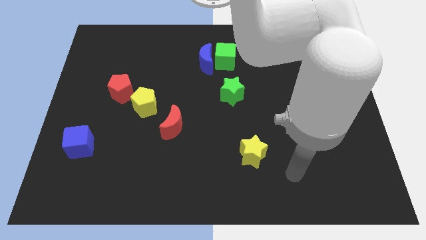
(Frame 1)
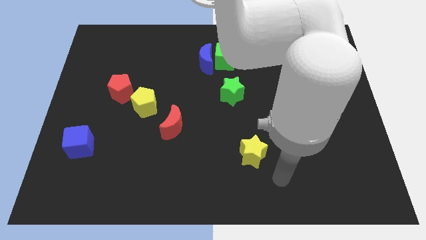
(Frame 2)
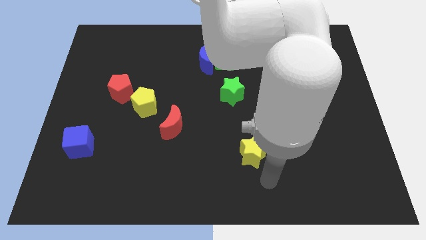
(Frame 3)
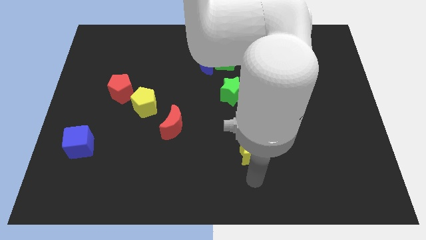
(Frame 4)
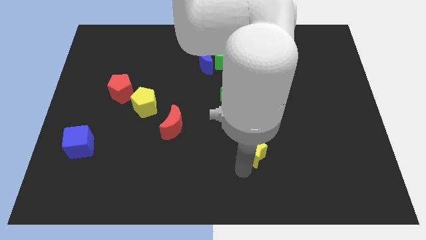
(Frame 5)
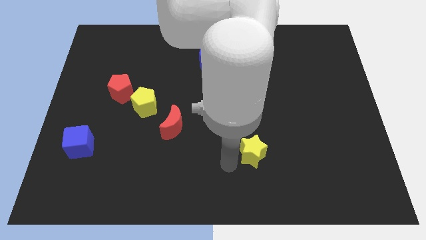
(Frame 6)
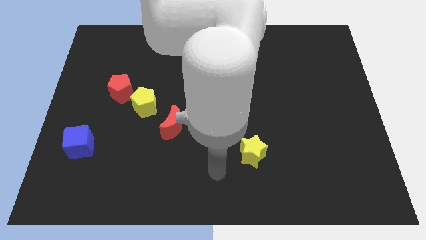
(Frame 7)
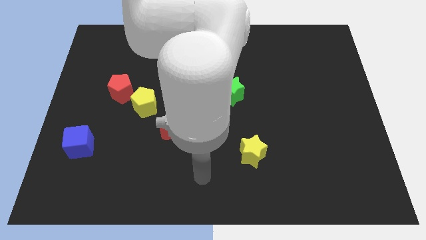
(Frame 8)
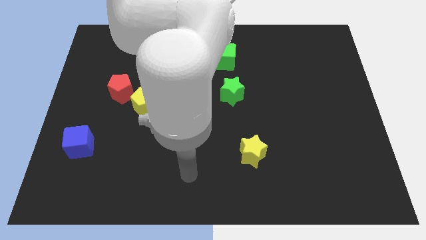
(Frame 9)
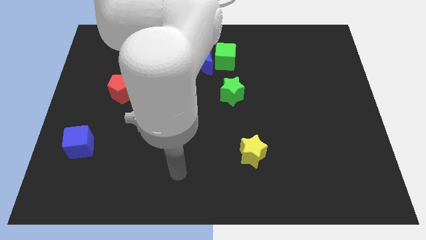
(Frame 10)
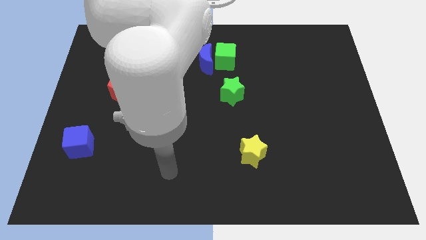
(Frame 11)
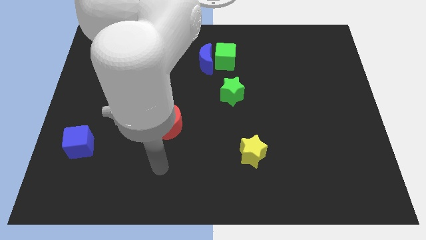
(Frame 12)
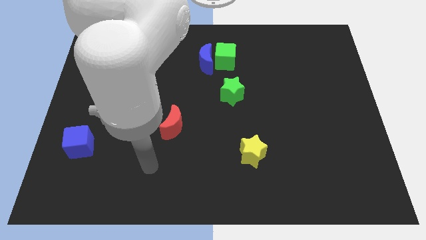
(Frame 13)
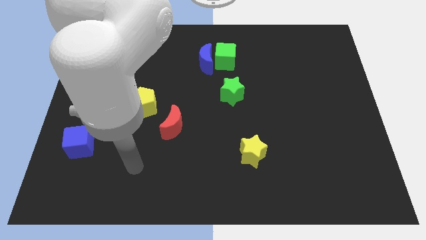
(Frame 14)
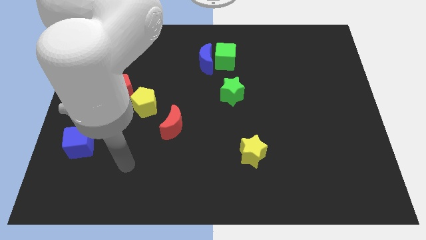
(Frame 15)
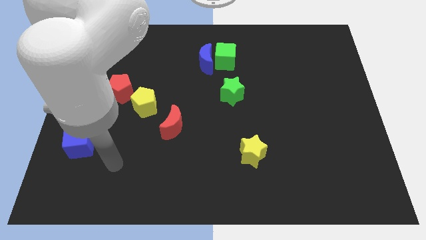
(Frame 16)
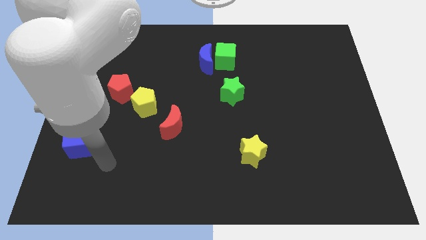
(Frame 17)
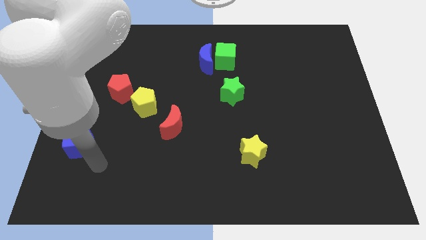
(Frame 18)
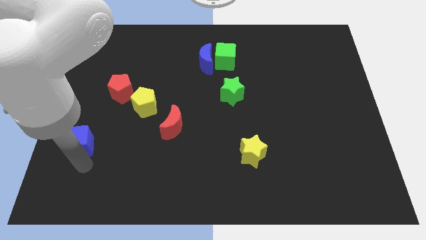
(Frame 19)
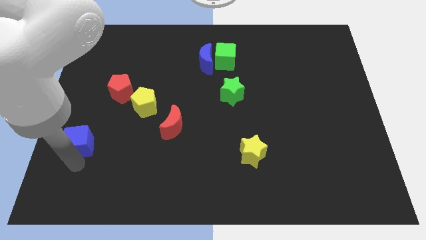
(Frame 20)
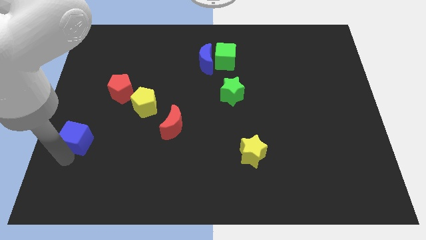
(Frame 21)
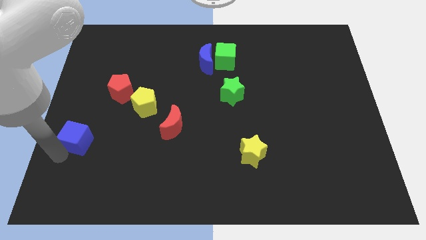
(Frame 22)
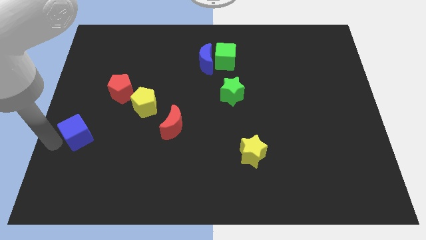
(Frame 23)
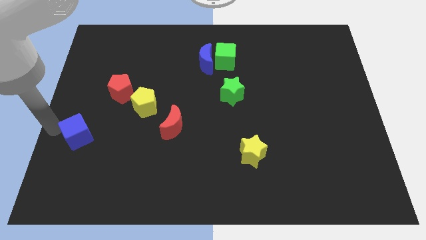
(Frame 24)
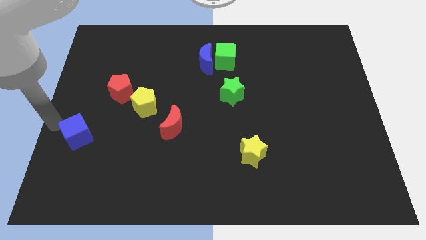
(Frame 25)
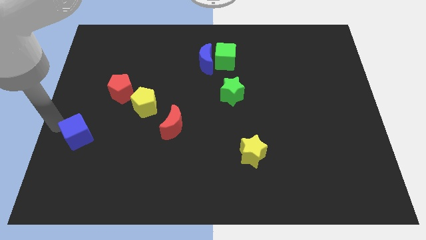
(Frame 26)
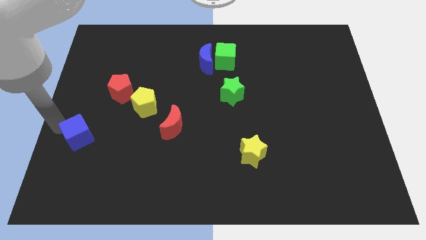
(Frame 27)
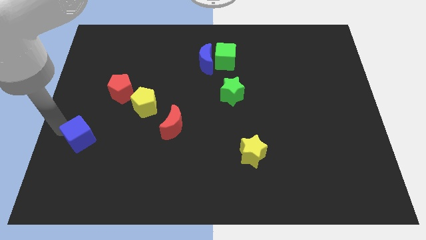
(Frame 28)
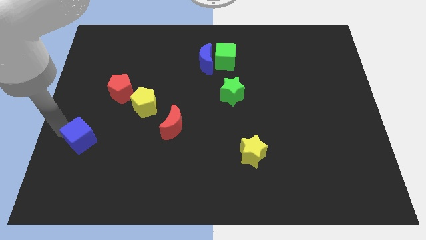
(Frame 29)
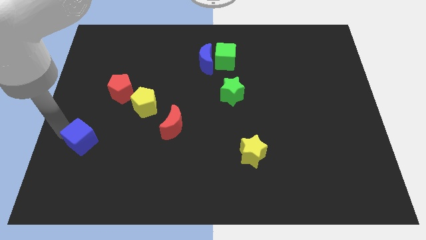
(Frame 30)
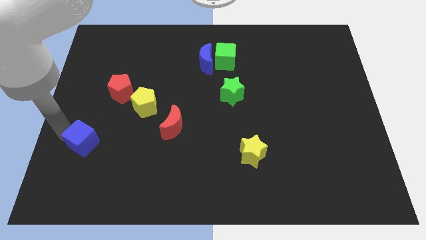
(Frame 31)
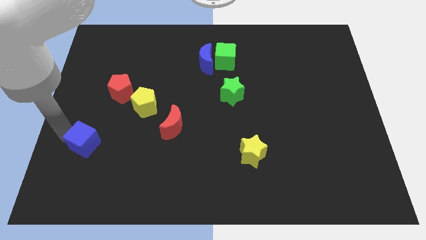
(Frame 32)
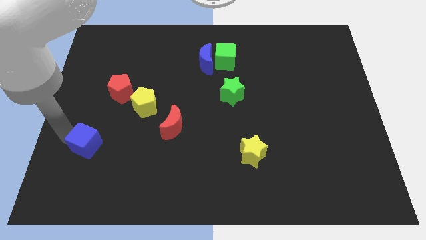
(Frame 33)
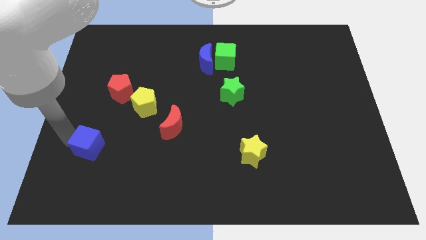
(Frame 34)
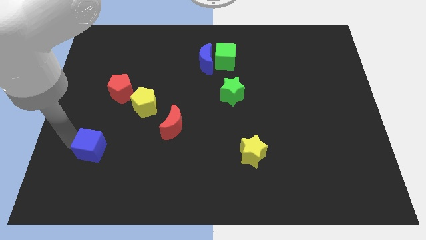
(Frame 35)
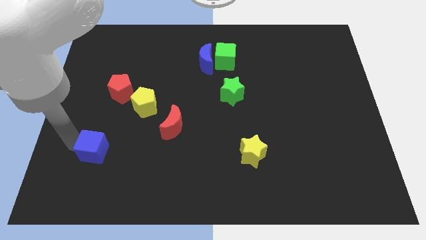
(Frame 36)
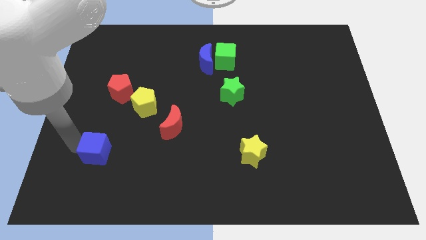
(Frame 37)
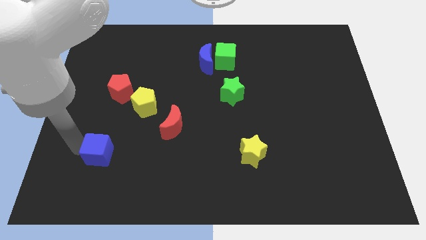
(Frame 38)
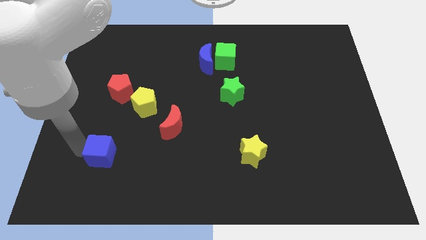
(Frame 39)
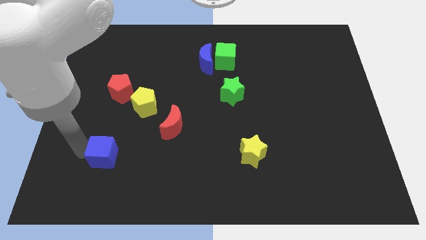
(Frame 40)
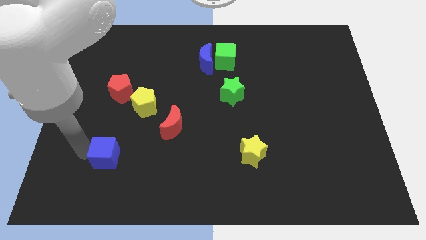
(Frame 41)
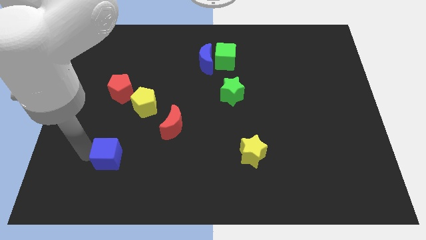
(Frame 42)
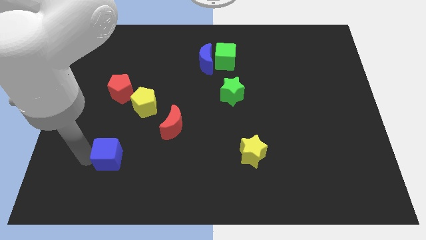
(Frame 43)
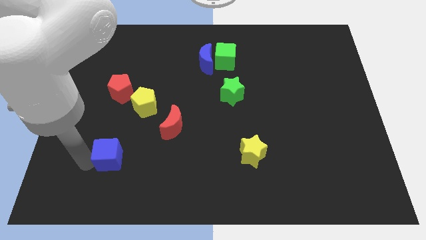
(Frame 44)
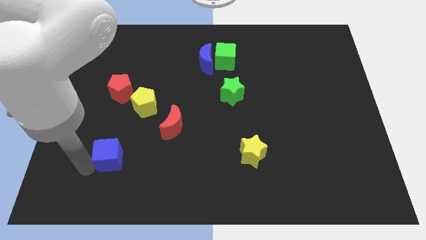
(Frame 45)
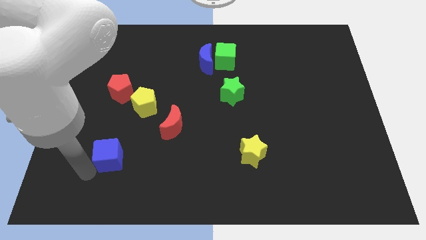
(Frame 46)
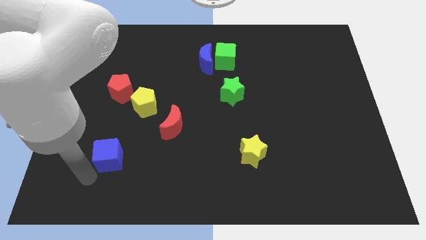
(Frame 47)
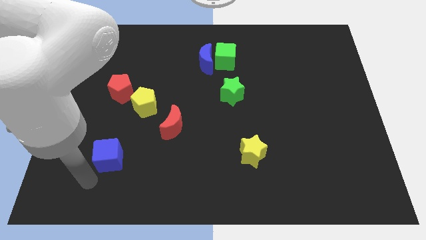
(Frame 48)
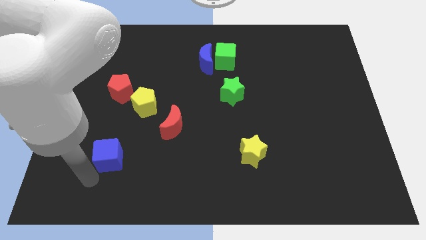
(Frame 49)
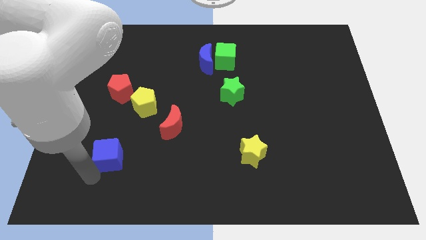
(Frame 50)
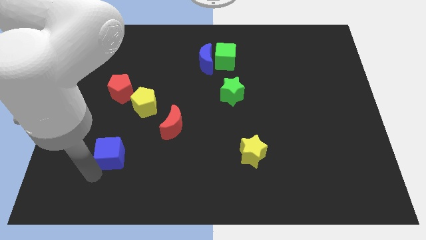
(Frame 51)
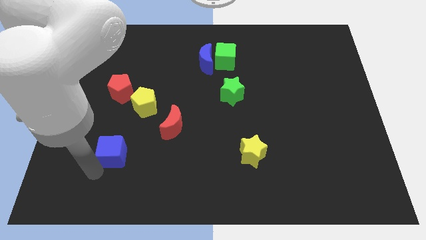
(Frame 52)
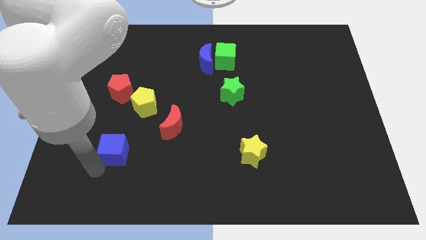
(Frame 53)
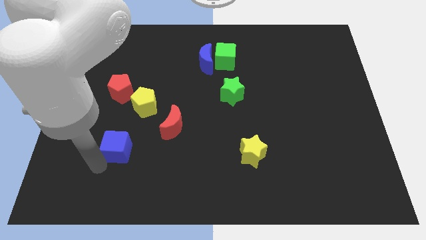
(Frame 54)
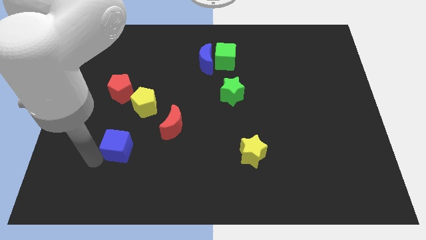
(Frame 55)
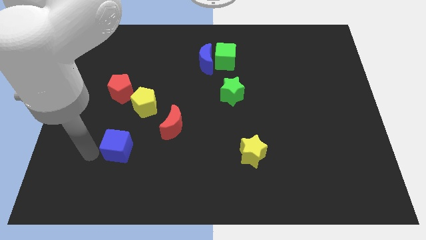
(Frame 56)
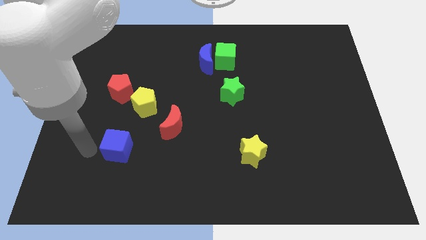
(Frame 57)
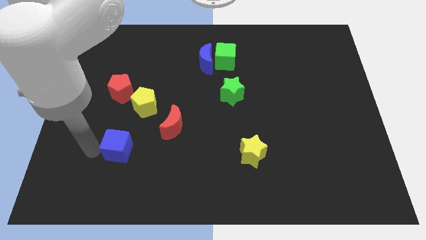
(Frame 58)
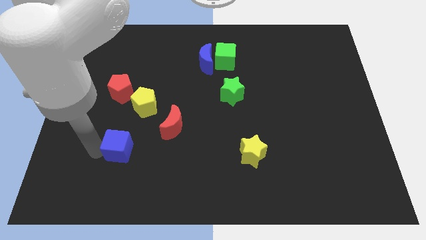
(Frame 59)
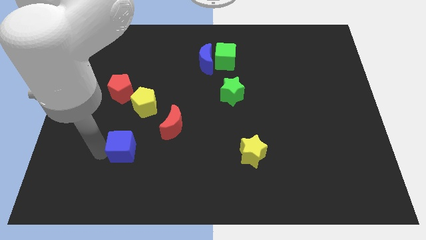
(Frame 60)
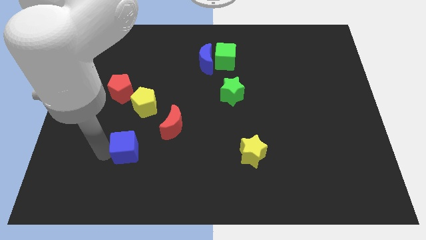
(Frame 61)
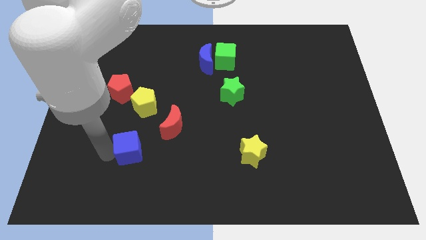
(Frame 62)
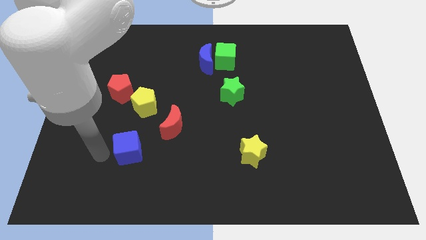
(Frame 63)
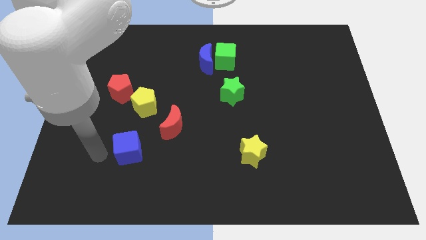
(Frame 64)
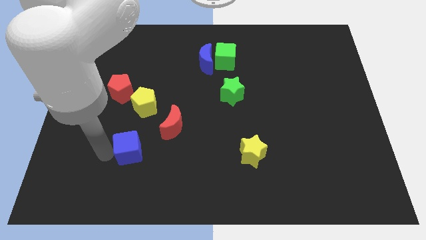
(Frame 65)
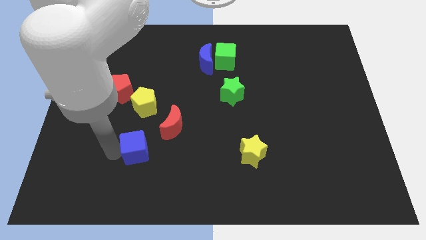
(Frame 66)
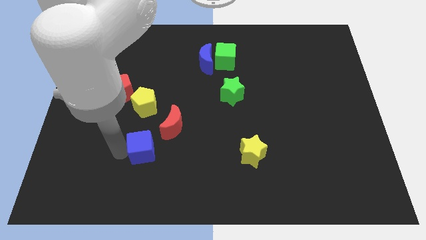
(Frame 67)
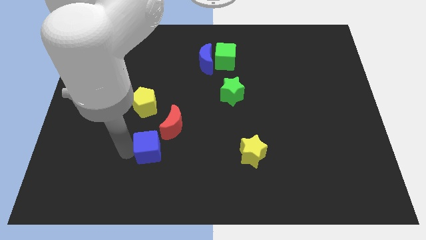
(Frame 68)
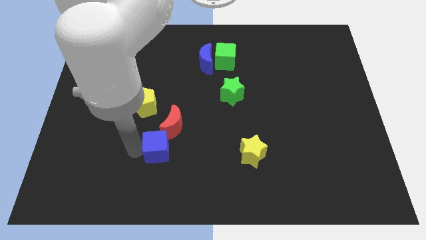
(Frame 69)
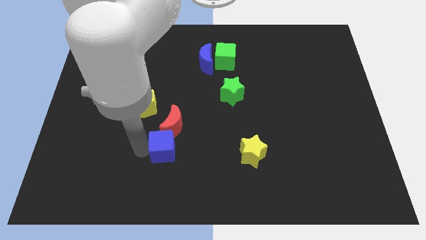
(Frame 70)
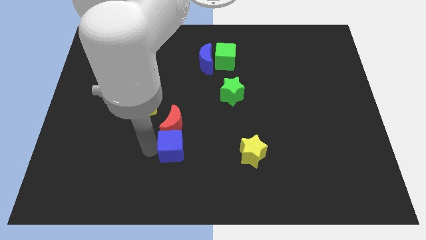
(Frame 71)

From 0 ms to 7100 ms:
slide the blue cube to the right

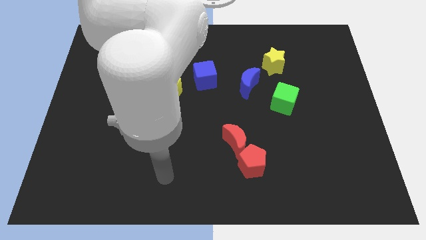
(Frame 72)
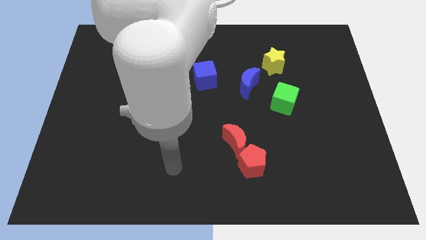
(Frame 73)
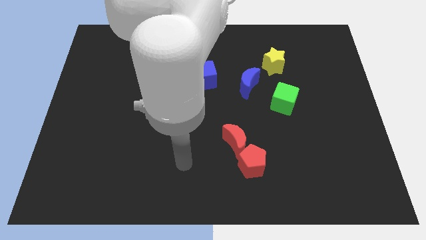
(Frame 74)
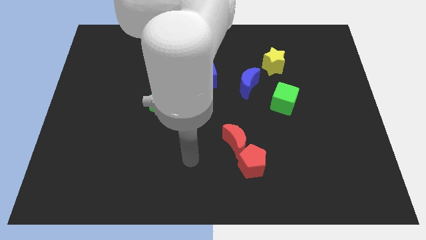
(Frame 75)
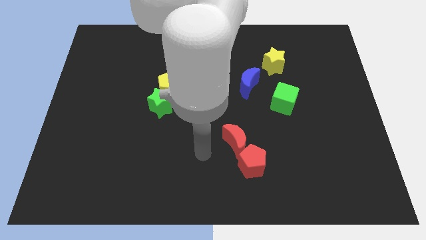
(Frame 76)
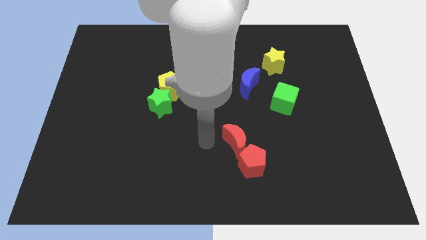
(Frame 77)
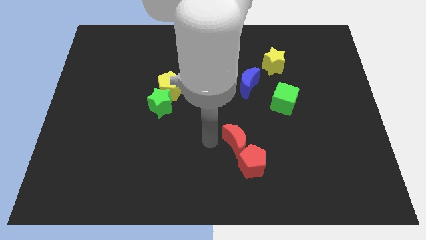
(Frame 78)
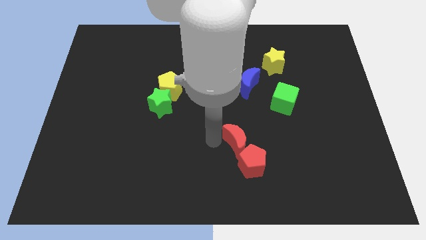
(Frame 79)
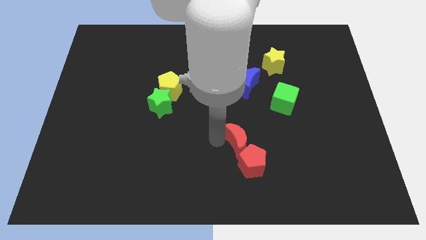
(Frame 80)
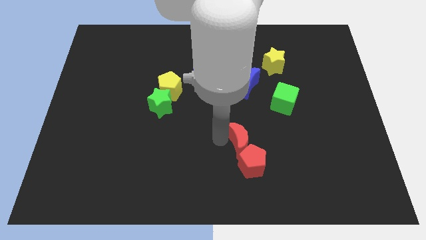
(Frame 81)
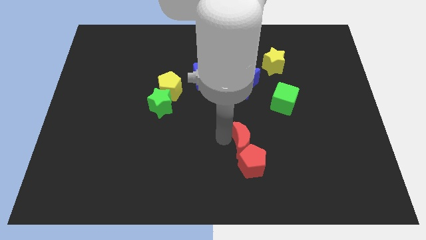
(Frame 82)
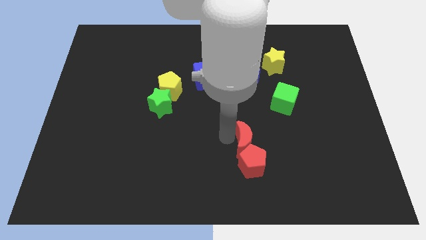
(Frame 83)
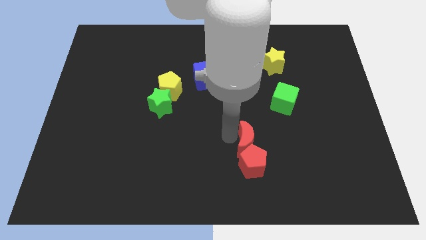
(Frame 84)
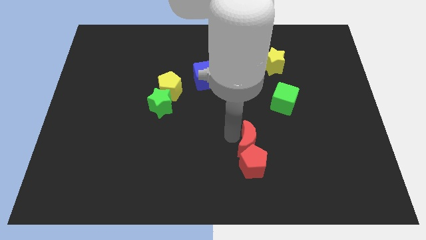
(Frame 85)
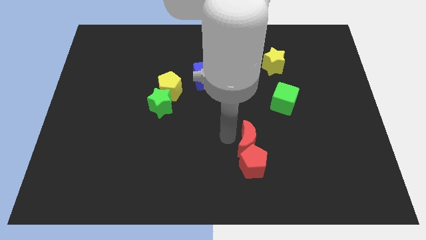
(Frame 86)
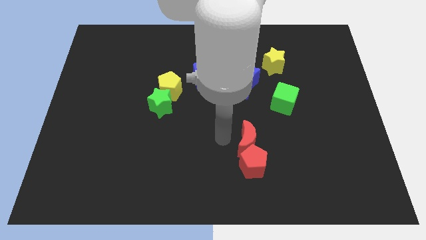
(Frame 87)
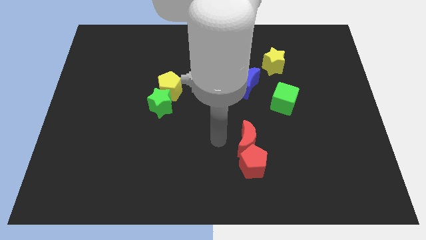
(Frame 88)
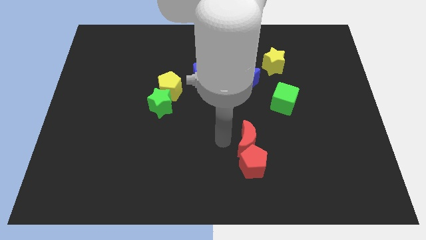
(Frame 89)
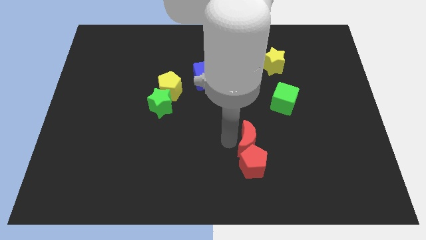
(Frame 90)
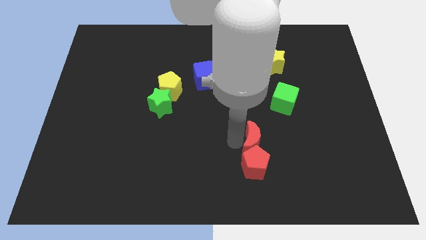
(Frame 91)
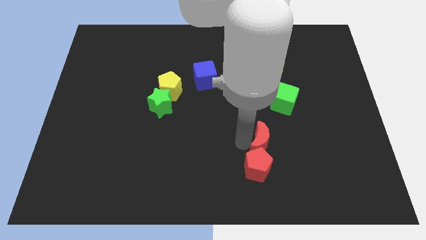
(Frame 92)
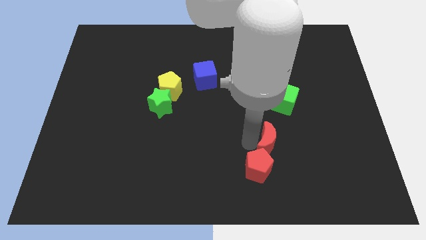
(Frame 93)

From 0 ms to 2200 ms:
slightly push the red moon right
